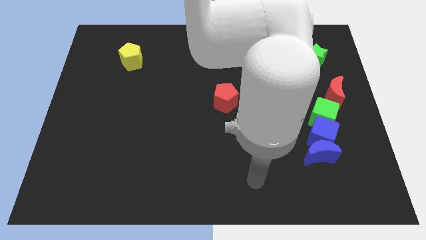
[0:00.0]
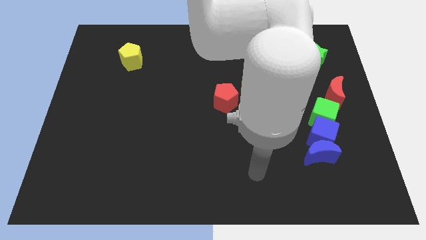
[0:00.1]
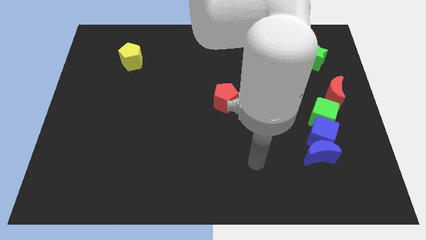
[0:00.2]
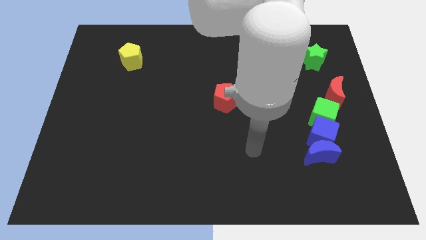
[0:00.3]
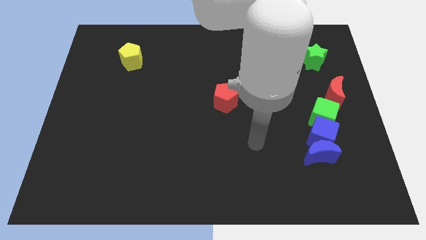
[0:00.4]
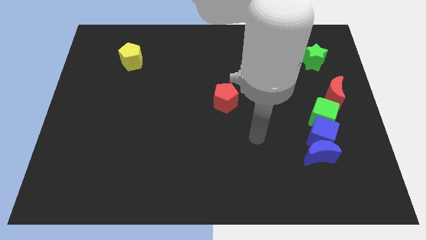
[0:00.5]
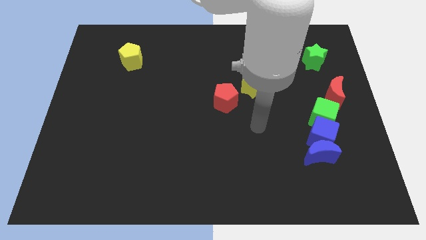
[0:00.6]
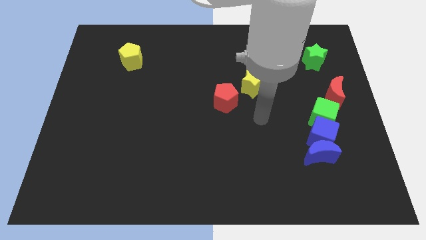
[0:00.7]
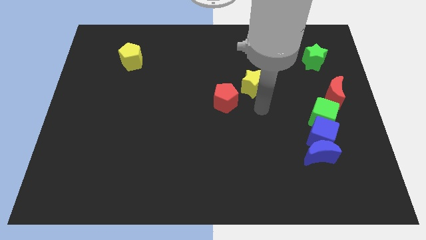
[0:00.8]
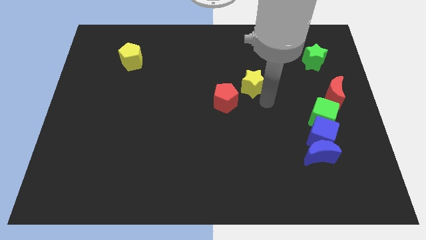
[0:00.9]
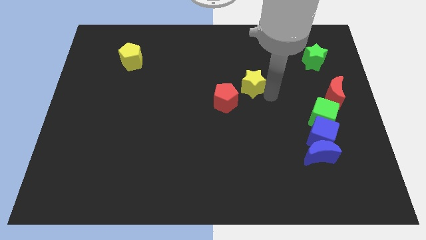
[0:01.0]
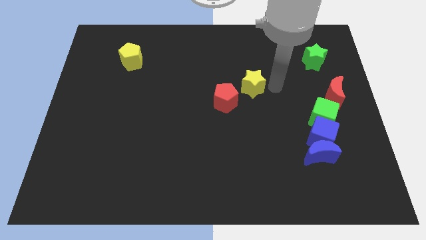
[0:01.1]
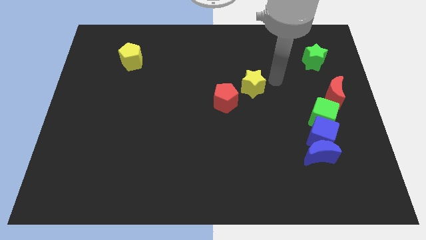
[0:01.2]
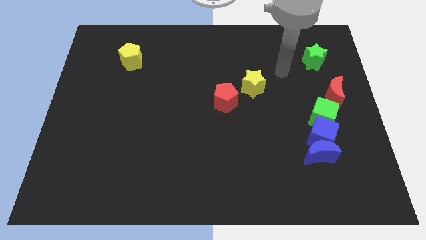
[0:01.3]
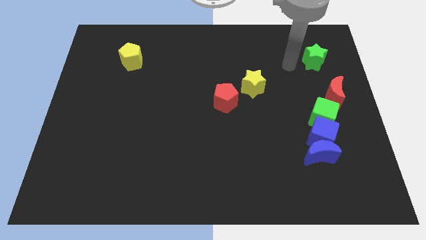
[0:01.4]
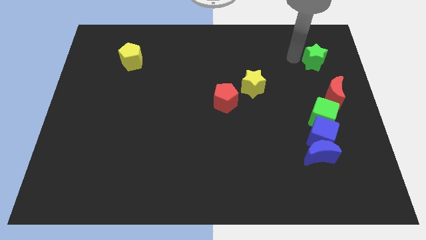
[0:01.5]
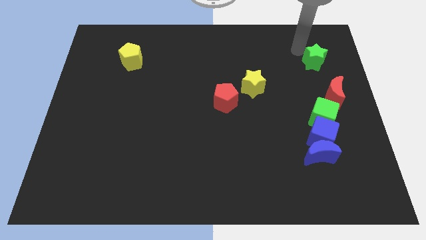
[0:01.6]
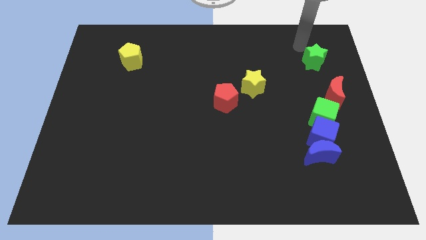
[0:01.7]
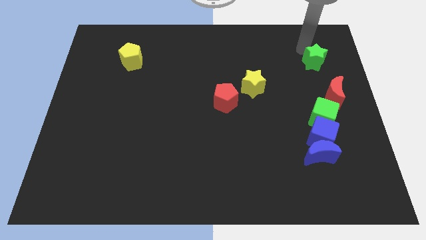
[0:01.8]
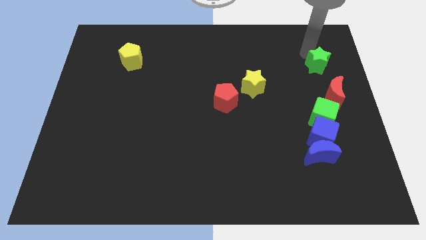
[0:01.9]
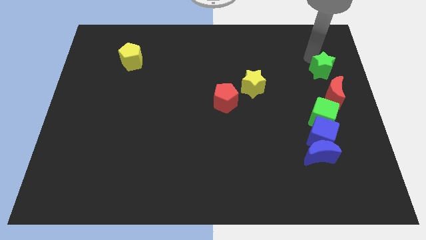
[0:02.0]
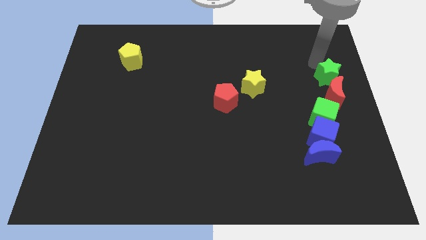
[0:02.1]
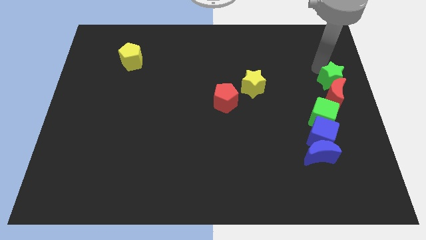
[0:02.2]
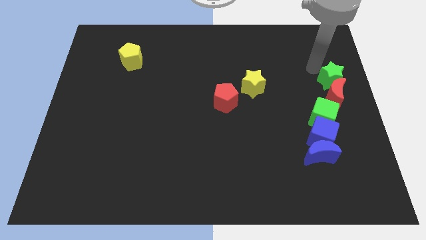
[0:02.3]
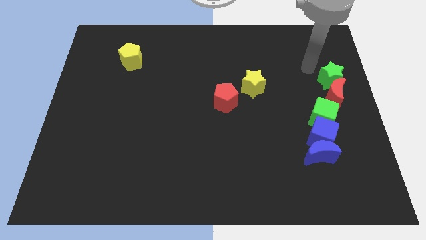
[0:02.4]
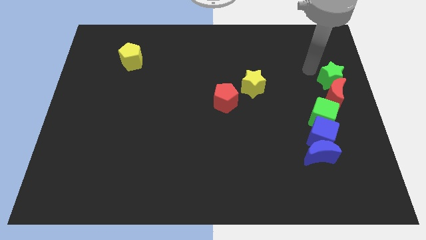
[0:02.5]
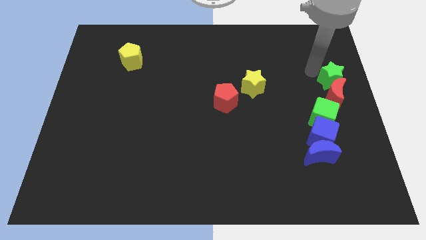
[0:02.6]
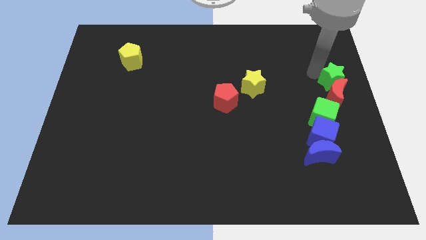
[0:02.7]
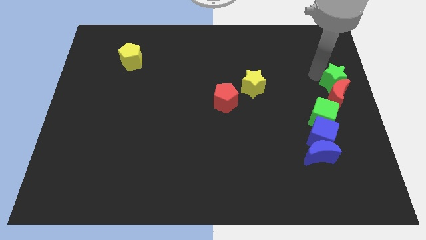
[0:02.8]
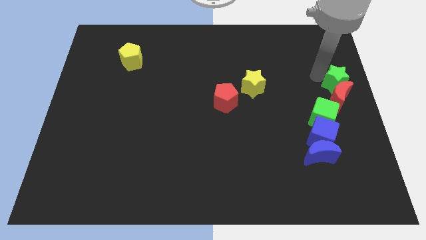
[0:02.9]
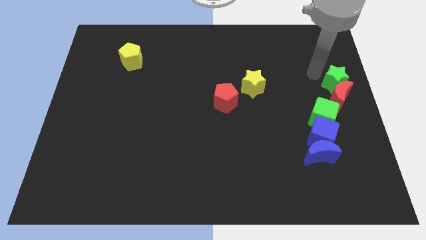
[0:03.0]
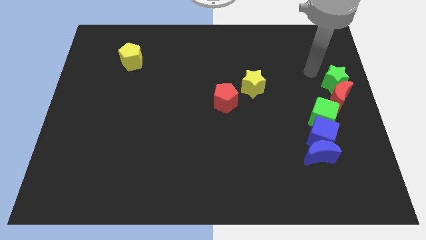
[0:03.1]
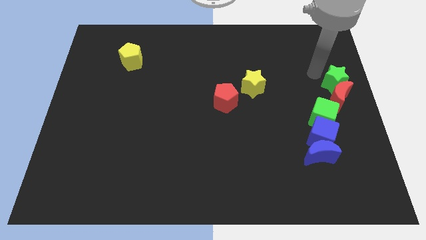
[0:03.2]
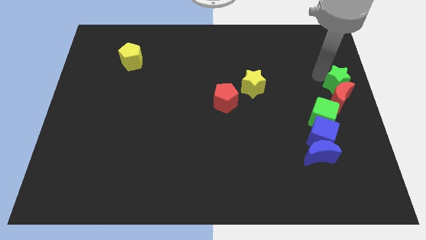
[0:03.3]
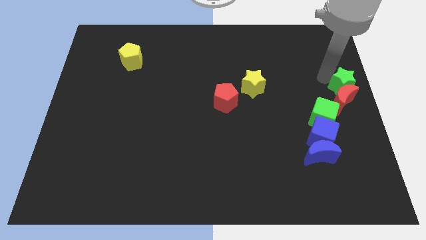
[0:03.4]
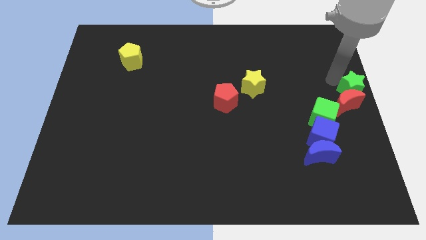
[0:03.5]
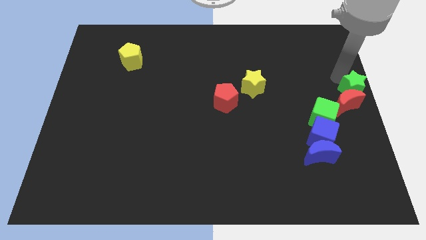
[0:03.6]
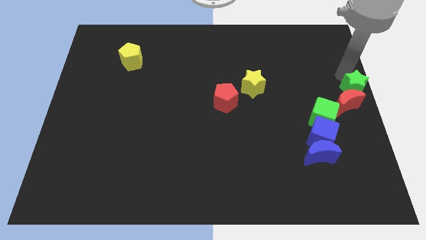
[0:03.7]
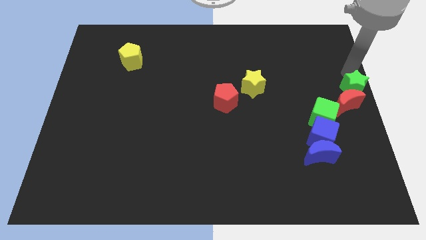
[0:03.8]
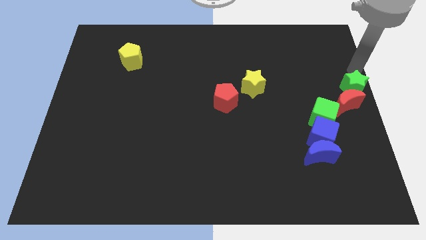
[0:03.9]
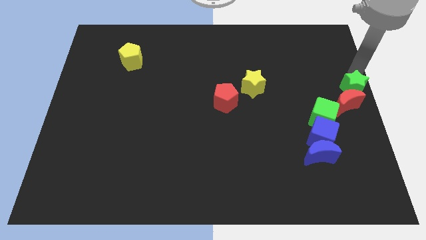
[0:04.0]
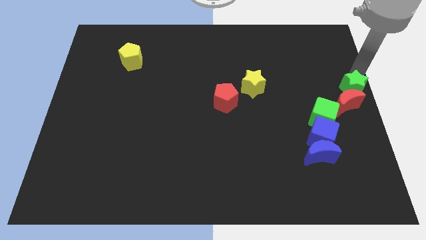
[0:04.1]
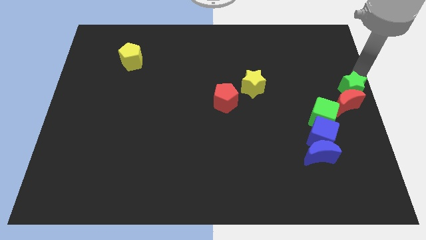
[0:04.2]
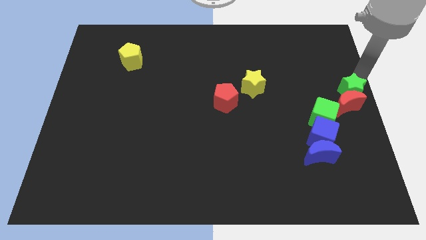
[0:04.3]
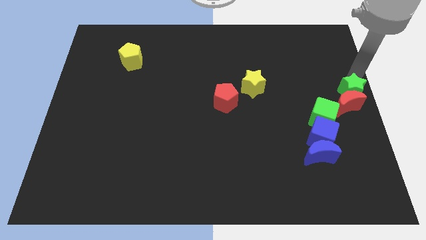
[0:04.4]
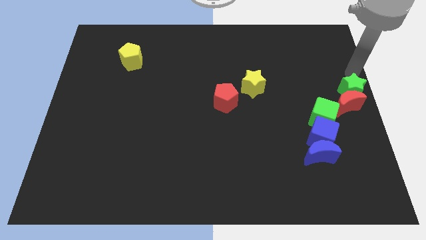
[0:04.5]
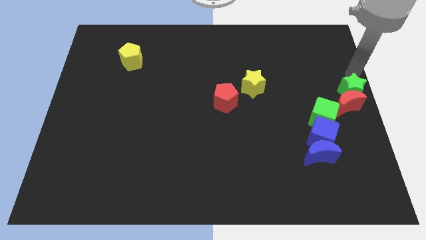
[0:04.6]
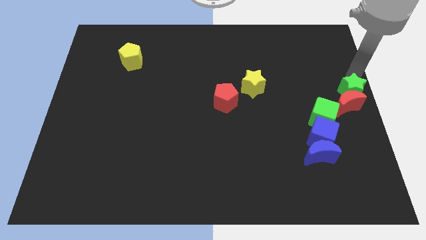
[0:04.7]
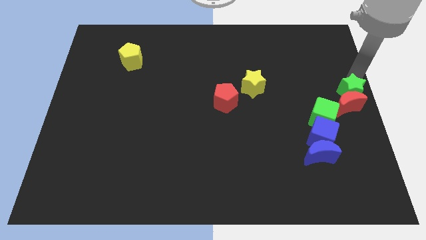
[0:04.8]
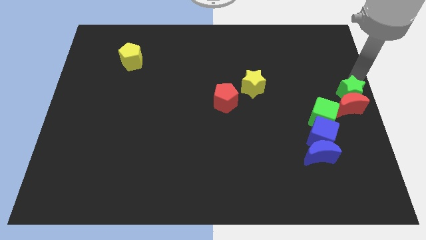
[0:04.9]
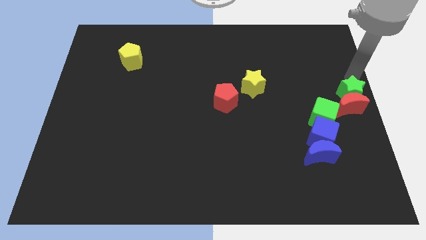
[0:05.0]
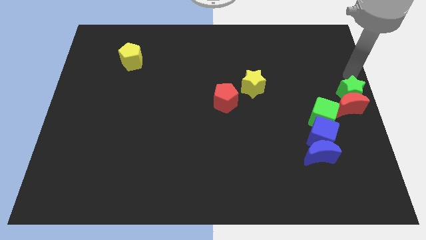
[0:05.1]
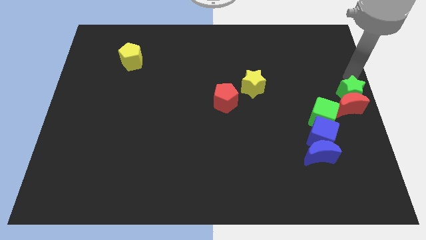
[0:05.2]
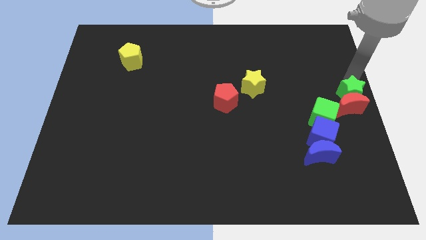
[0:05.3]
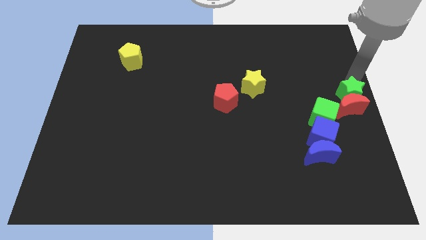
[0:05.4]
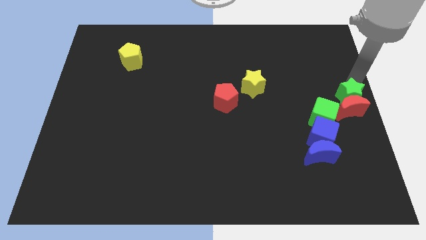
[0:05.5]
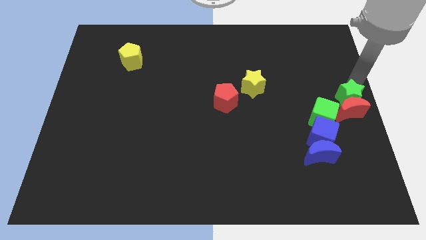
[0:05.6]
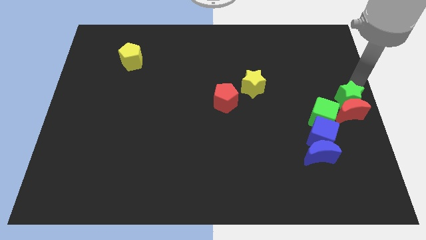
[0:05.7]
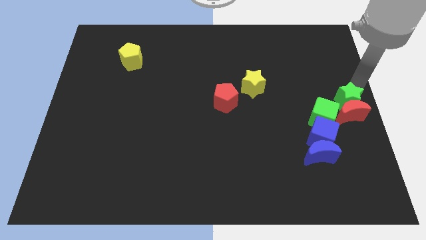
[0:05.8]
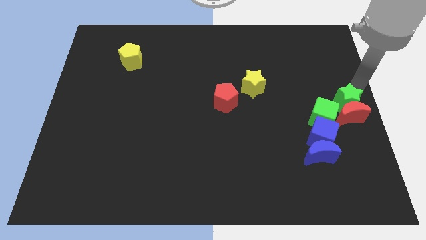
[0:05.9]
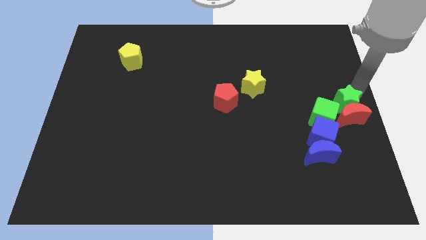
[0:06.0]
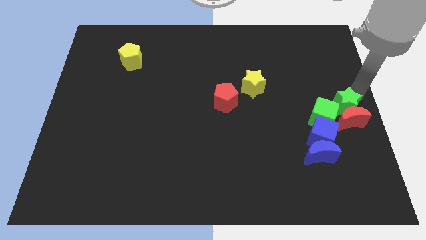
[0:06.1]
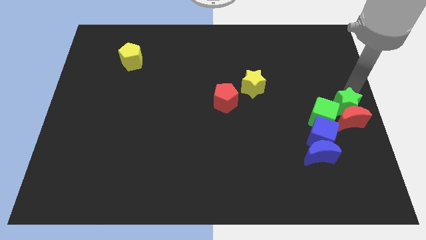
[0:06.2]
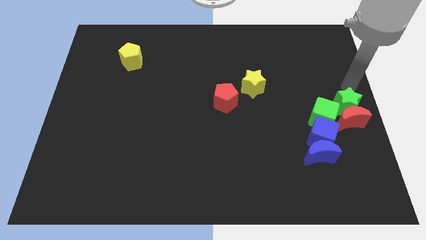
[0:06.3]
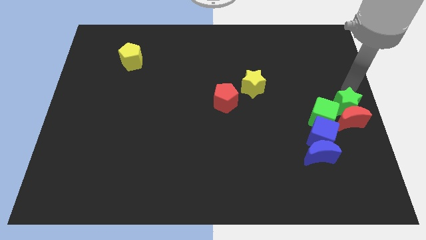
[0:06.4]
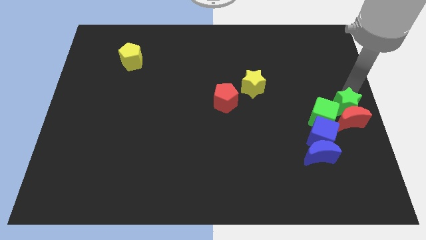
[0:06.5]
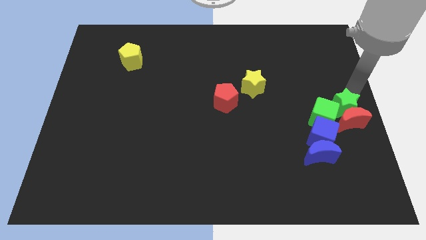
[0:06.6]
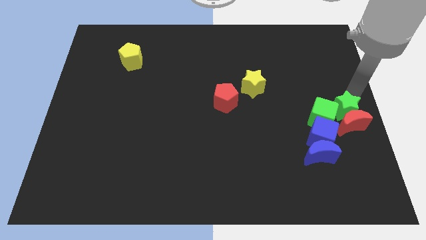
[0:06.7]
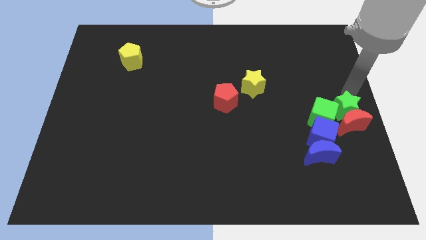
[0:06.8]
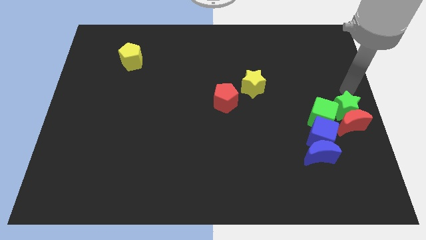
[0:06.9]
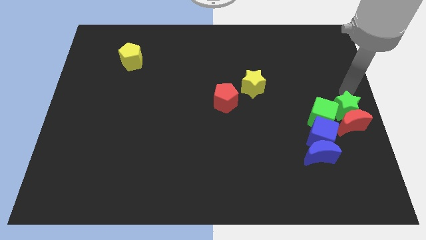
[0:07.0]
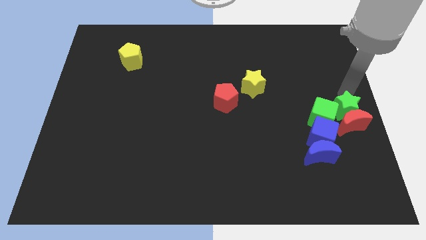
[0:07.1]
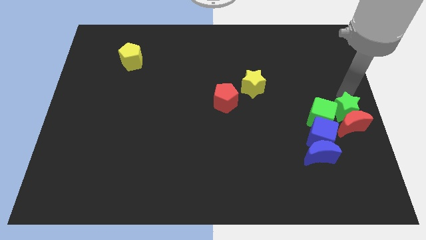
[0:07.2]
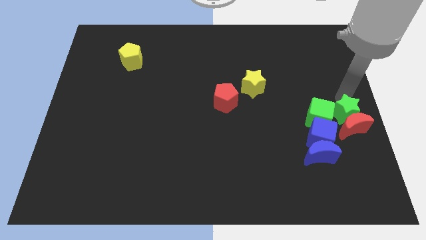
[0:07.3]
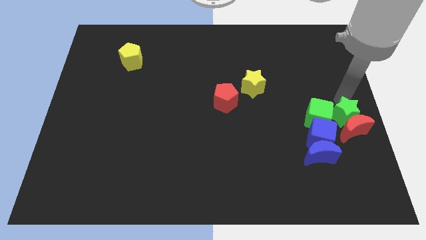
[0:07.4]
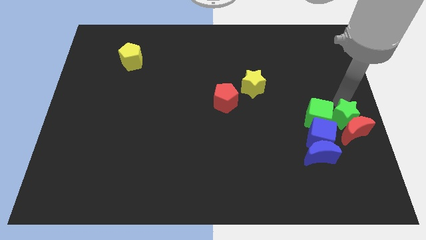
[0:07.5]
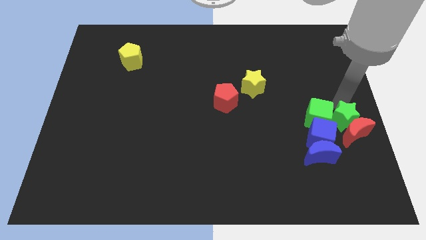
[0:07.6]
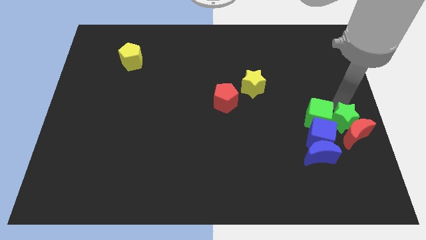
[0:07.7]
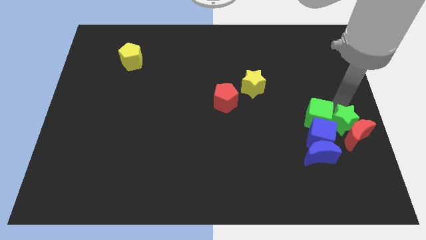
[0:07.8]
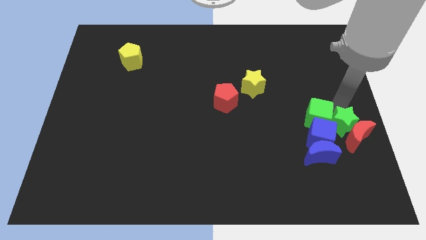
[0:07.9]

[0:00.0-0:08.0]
slide the green star downwards

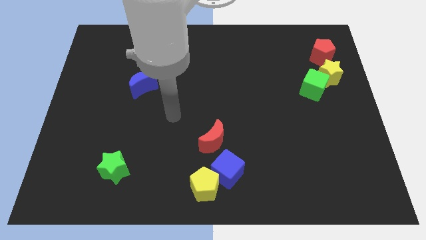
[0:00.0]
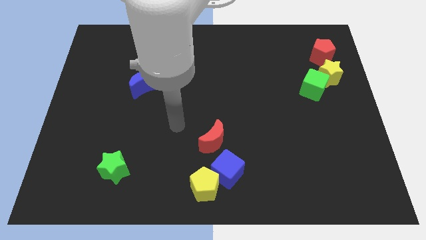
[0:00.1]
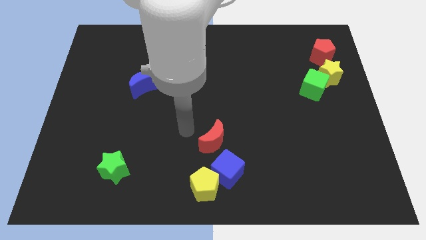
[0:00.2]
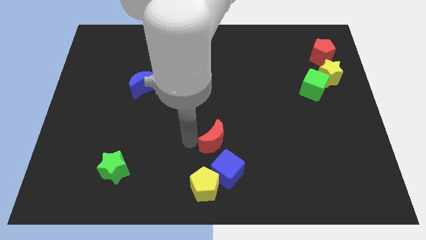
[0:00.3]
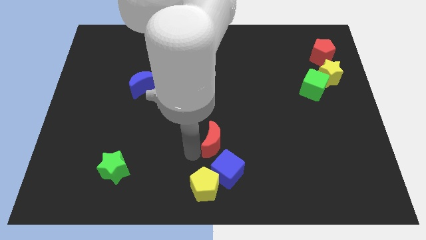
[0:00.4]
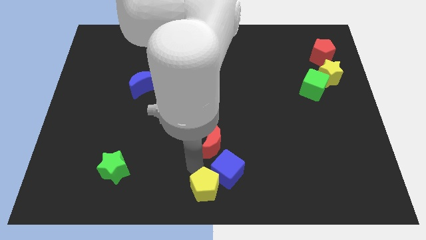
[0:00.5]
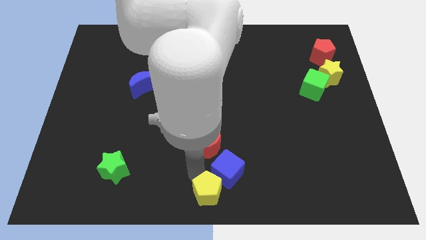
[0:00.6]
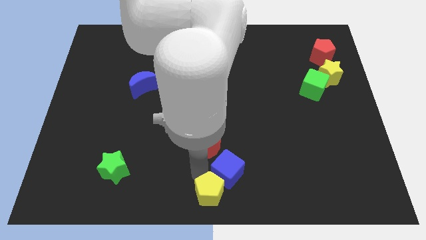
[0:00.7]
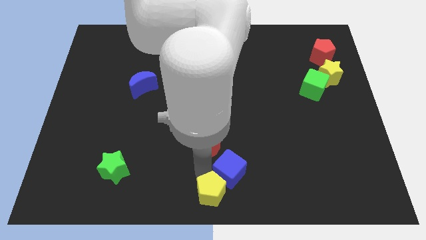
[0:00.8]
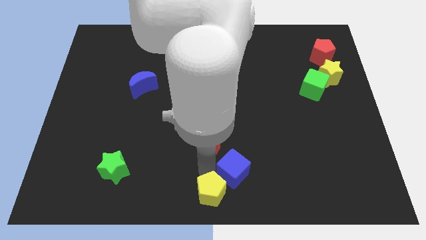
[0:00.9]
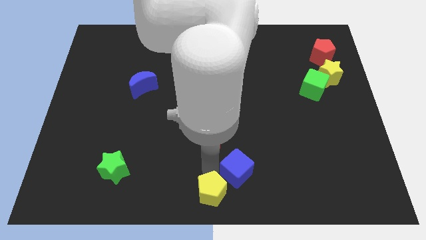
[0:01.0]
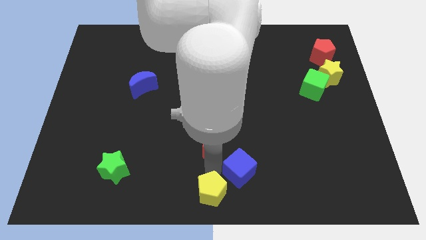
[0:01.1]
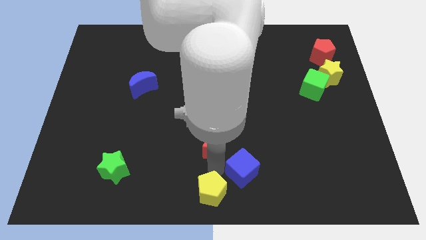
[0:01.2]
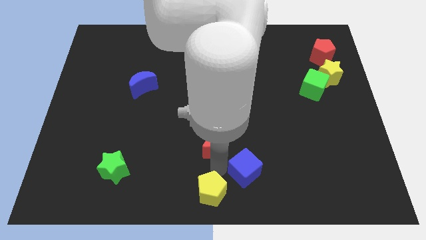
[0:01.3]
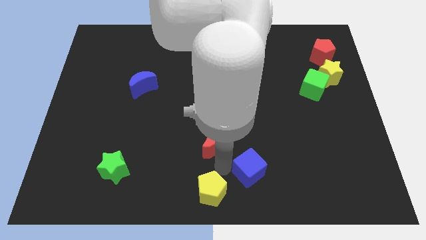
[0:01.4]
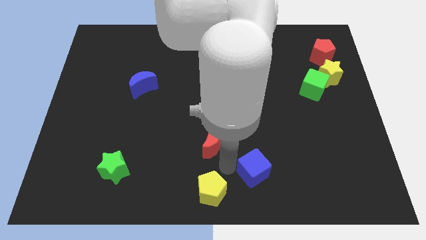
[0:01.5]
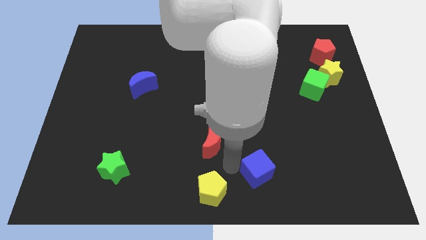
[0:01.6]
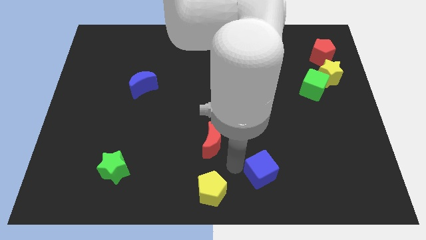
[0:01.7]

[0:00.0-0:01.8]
move the blue cube to the right slightly
